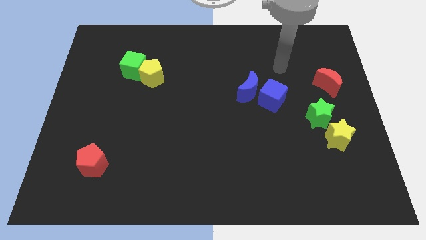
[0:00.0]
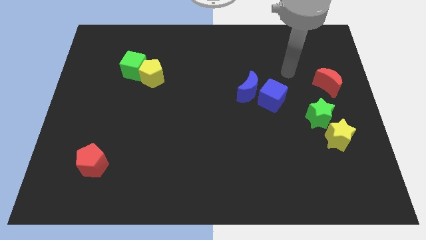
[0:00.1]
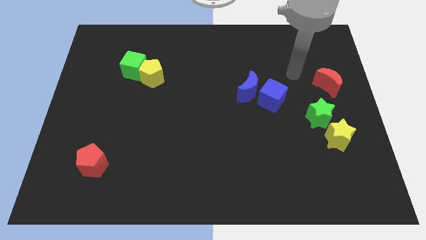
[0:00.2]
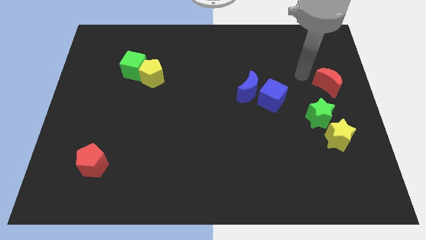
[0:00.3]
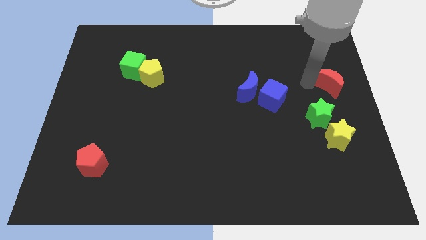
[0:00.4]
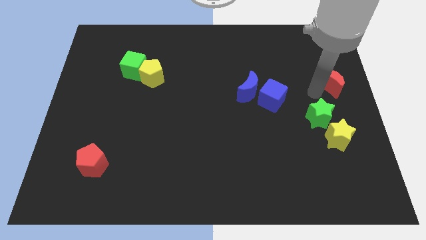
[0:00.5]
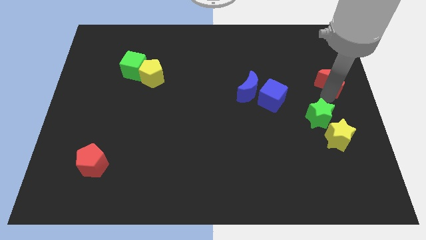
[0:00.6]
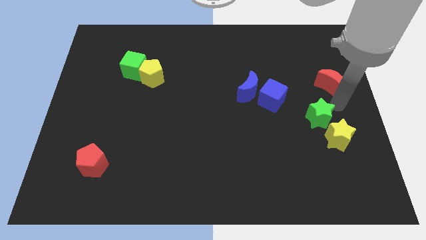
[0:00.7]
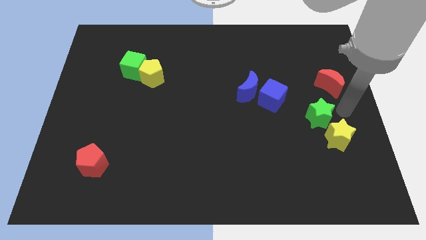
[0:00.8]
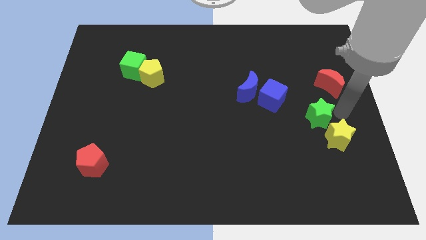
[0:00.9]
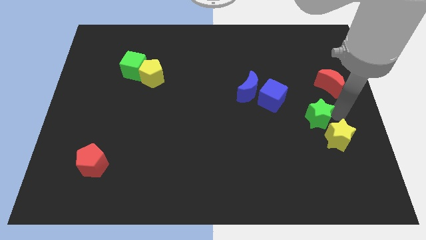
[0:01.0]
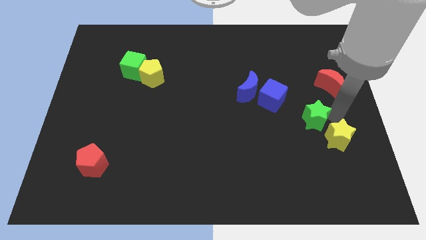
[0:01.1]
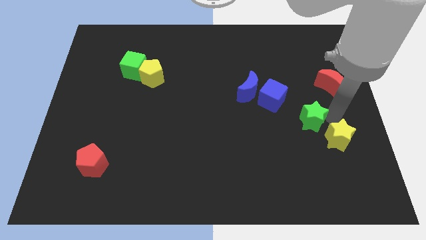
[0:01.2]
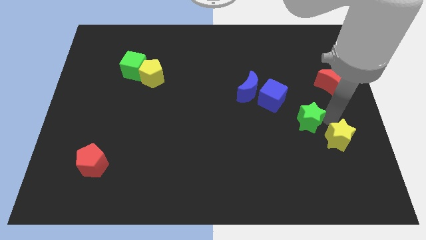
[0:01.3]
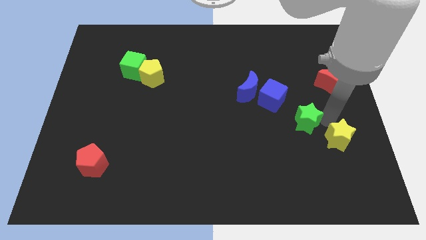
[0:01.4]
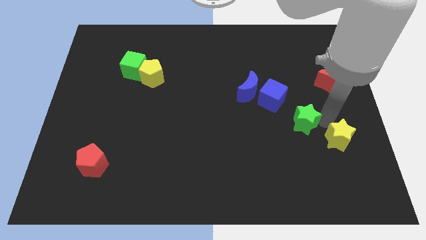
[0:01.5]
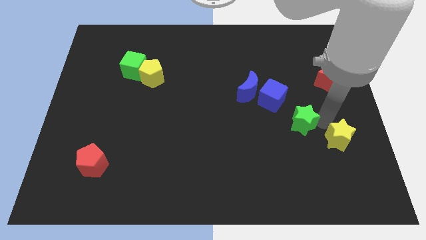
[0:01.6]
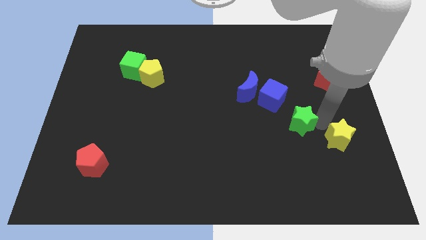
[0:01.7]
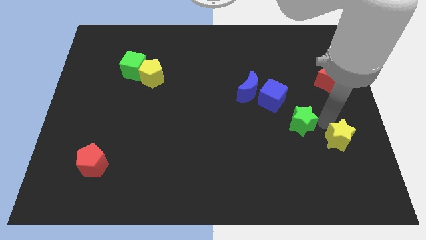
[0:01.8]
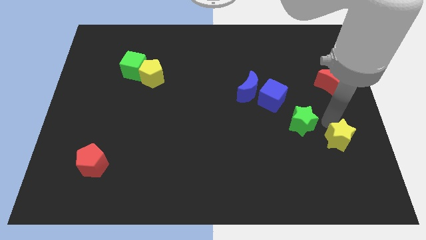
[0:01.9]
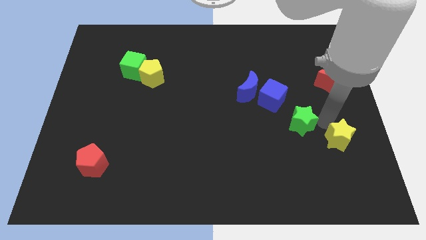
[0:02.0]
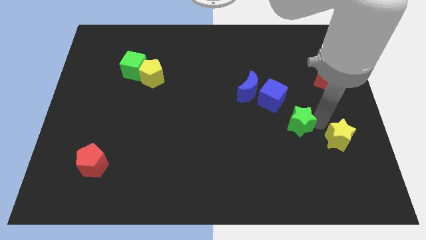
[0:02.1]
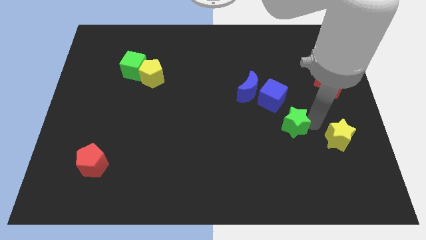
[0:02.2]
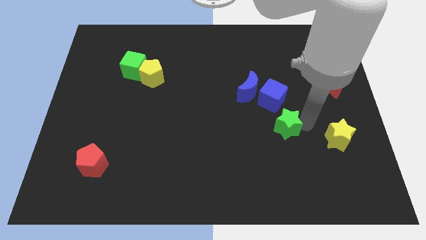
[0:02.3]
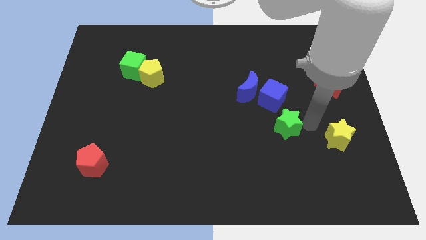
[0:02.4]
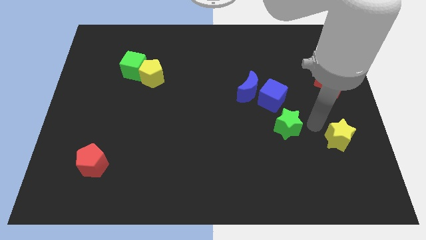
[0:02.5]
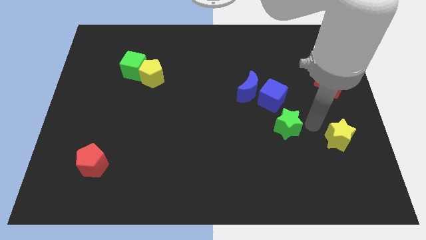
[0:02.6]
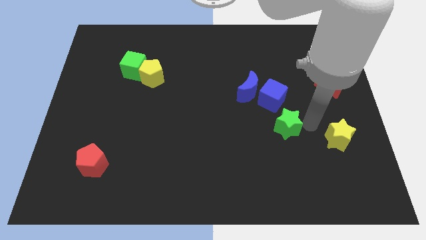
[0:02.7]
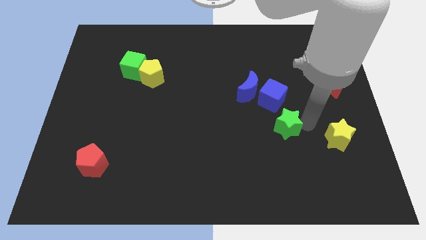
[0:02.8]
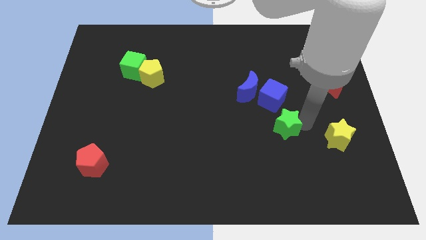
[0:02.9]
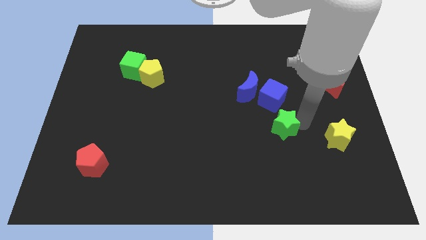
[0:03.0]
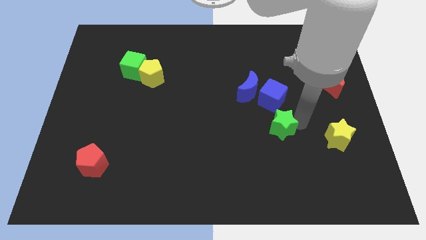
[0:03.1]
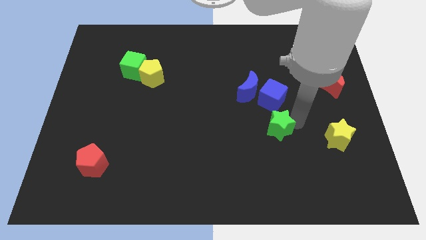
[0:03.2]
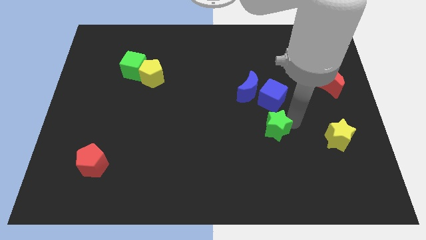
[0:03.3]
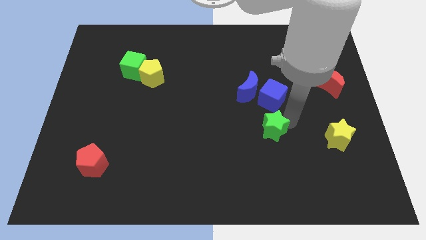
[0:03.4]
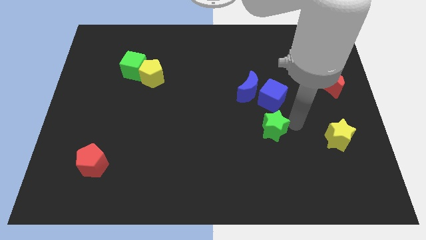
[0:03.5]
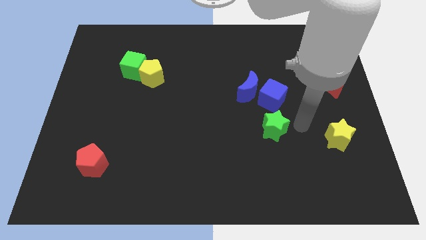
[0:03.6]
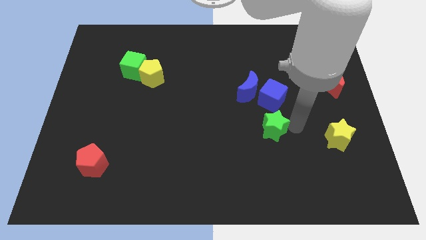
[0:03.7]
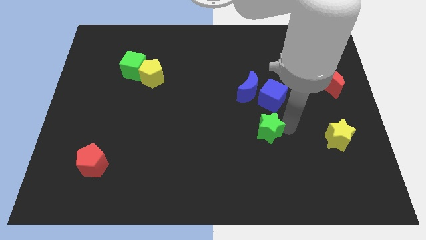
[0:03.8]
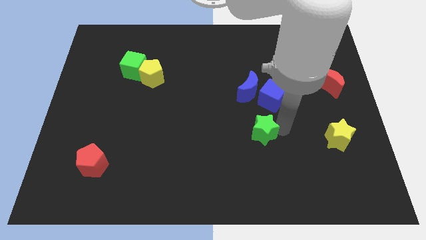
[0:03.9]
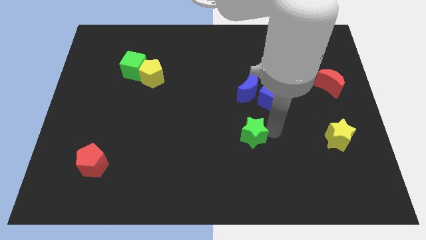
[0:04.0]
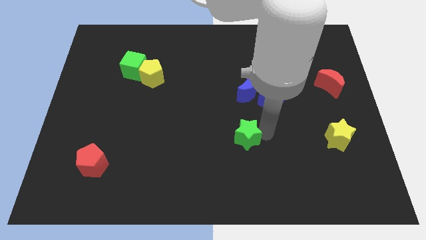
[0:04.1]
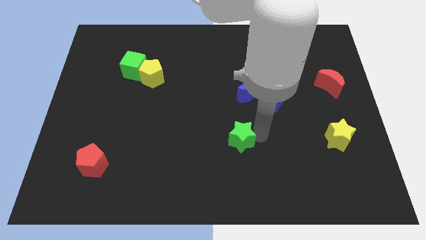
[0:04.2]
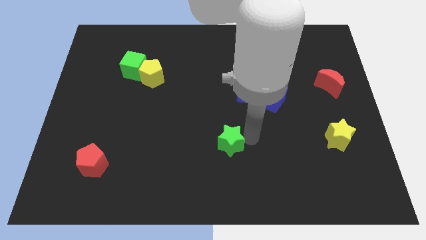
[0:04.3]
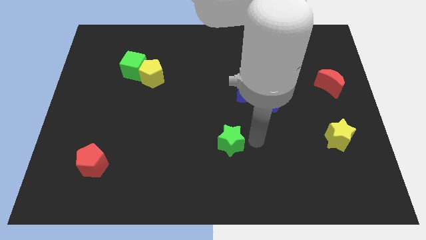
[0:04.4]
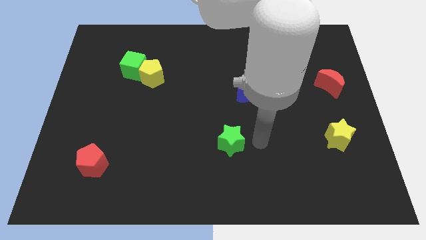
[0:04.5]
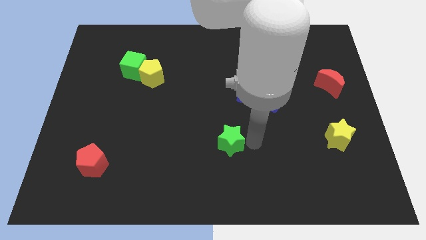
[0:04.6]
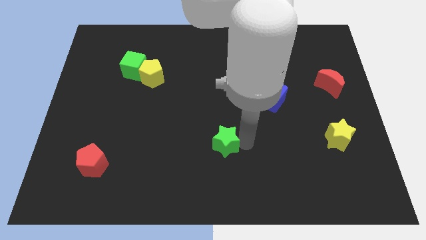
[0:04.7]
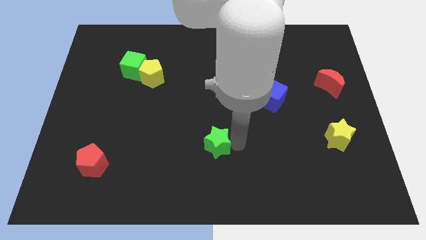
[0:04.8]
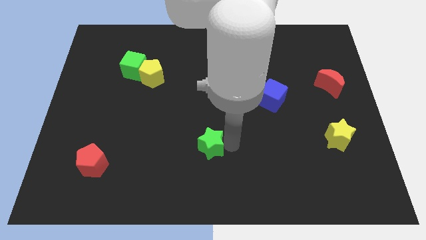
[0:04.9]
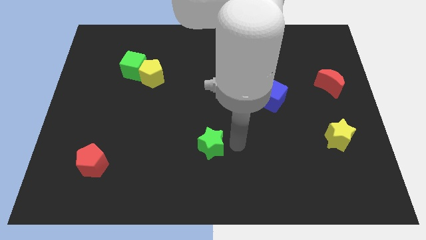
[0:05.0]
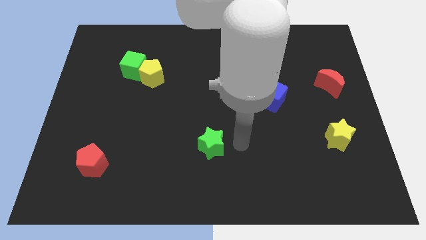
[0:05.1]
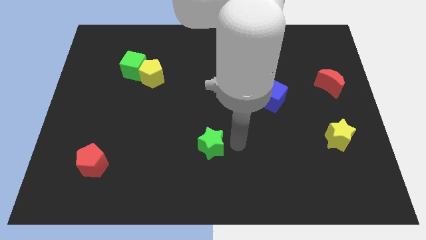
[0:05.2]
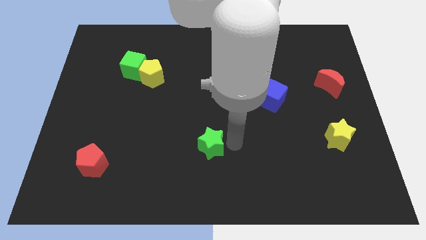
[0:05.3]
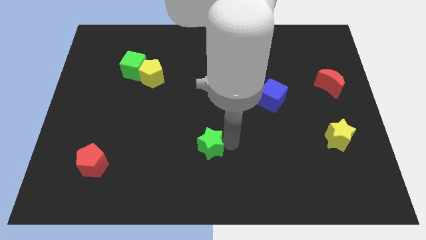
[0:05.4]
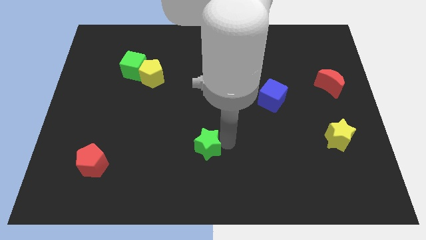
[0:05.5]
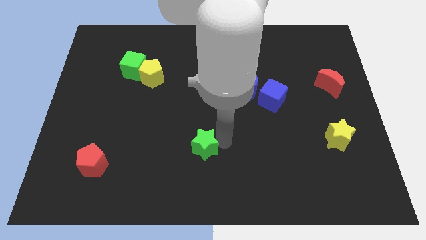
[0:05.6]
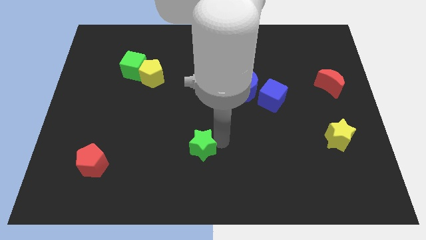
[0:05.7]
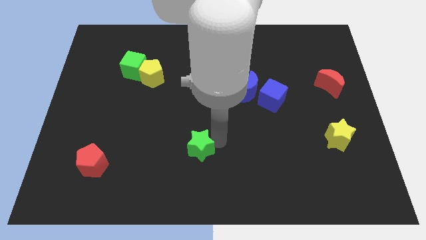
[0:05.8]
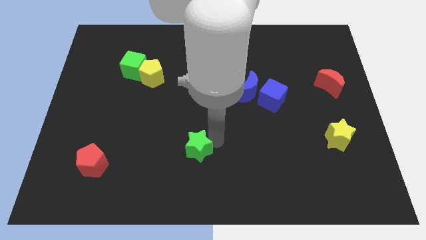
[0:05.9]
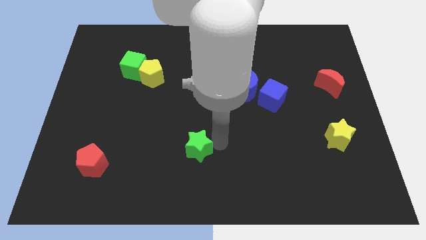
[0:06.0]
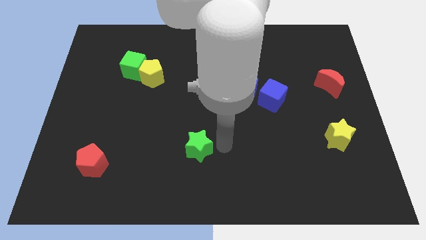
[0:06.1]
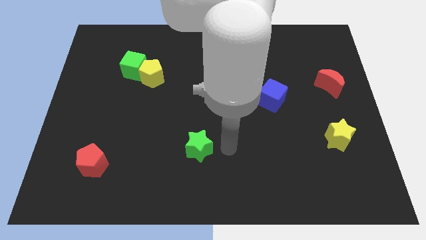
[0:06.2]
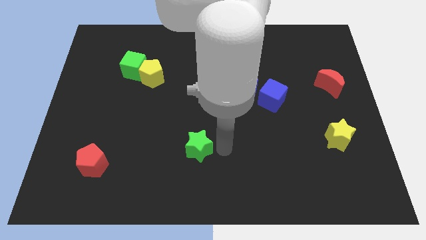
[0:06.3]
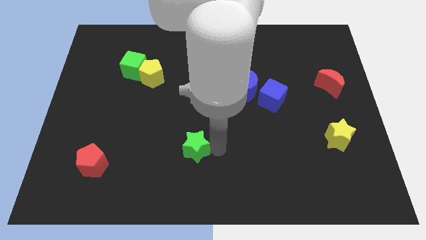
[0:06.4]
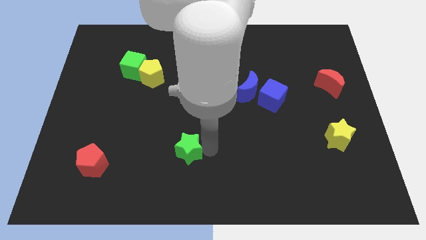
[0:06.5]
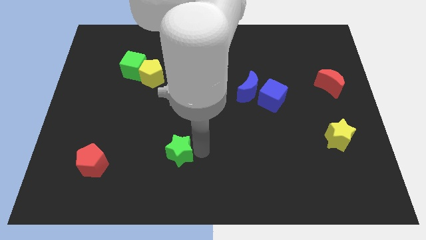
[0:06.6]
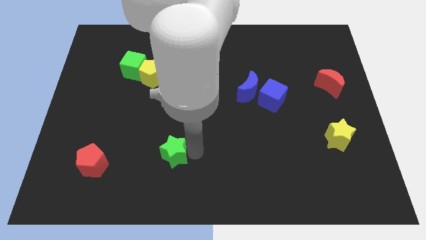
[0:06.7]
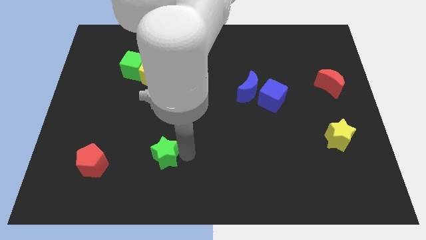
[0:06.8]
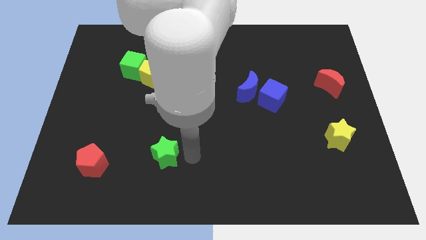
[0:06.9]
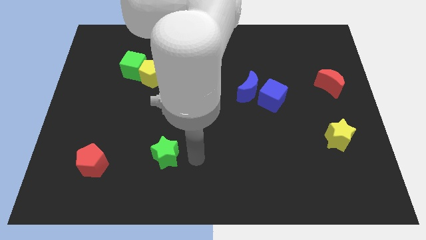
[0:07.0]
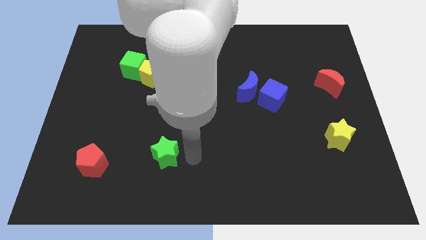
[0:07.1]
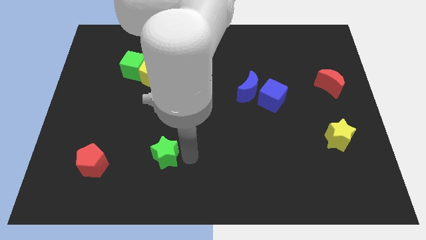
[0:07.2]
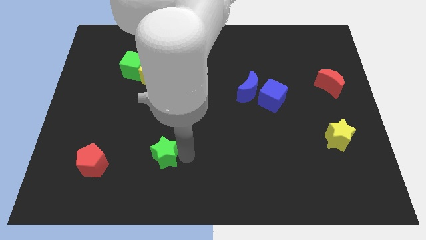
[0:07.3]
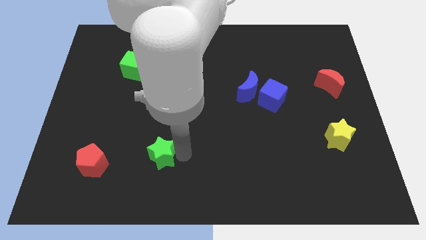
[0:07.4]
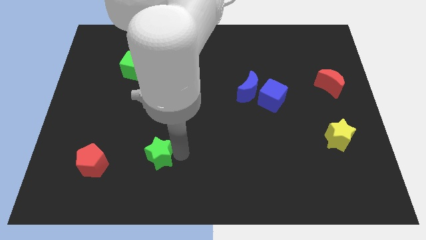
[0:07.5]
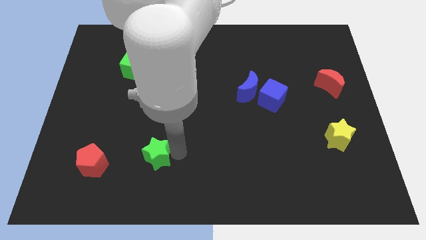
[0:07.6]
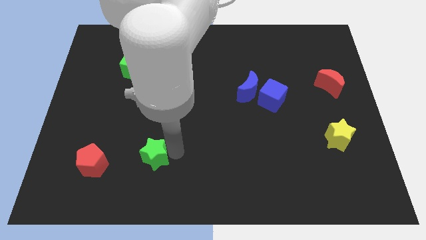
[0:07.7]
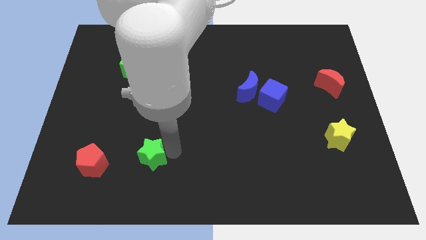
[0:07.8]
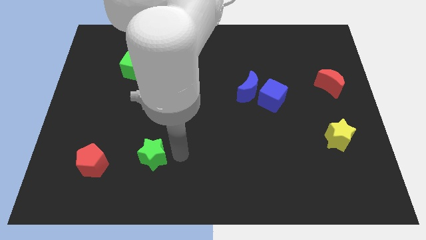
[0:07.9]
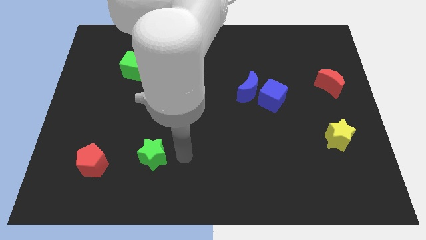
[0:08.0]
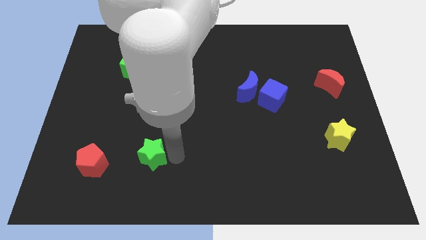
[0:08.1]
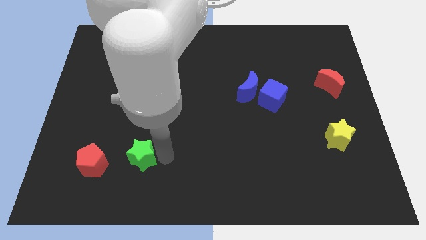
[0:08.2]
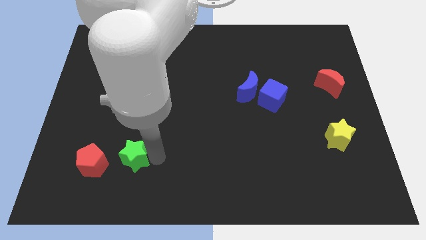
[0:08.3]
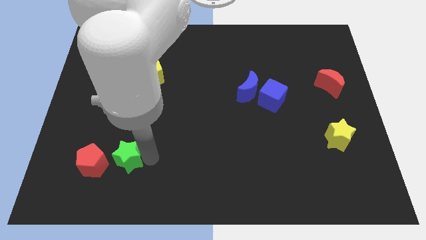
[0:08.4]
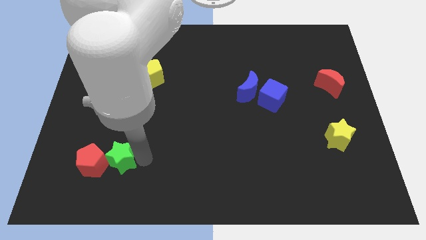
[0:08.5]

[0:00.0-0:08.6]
put the green star towards the red pentagon

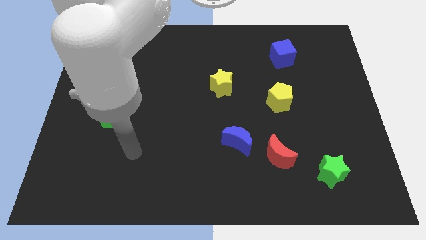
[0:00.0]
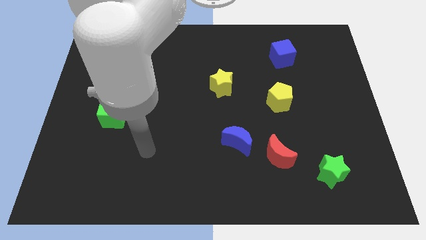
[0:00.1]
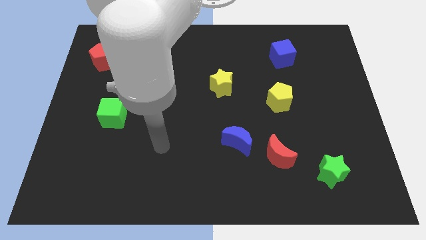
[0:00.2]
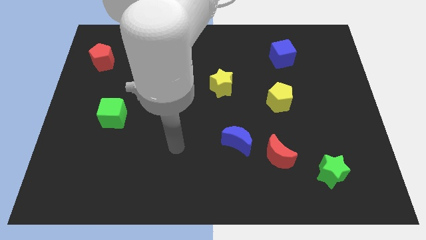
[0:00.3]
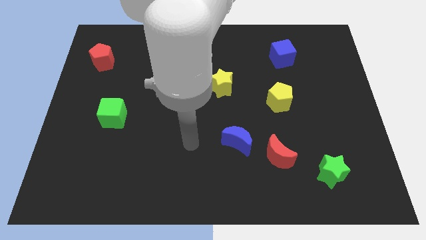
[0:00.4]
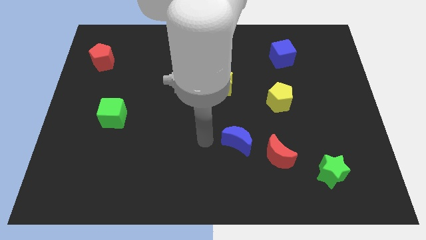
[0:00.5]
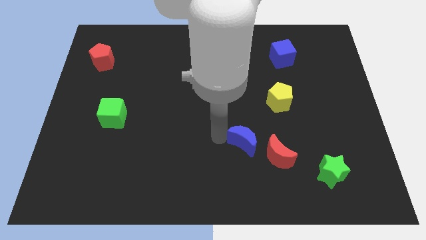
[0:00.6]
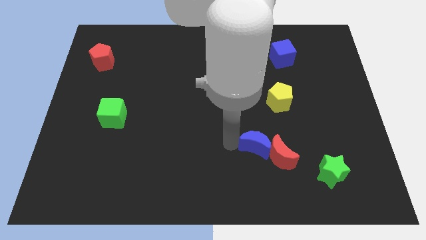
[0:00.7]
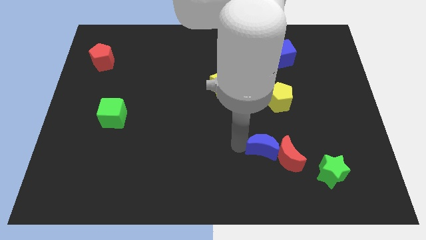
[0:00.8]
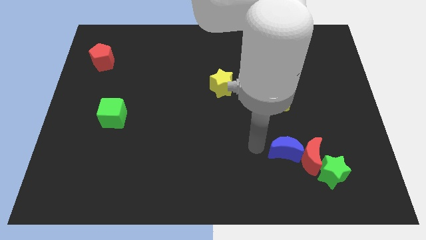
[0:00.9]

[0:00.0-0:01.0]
slide the red moon to the green star
